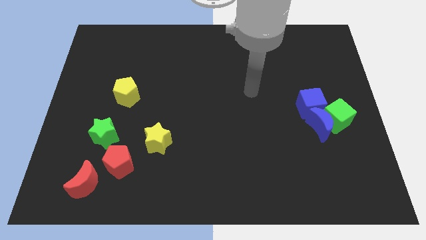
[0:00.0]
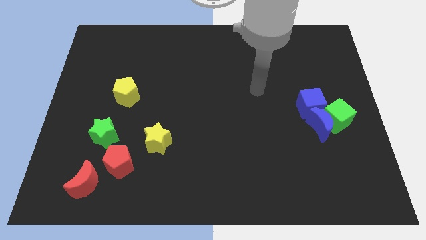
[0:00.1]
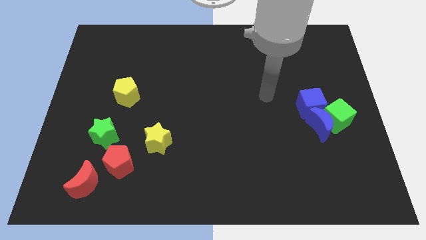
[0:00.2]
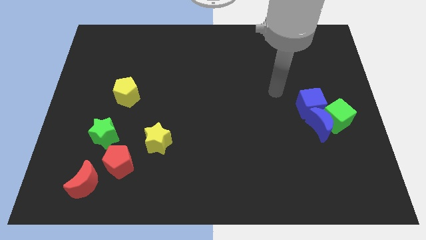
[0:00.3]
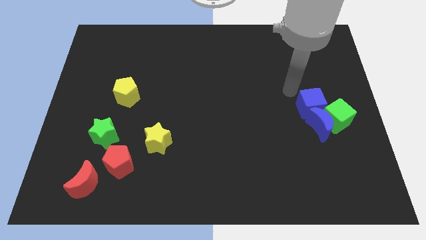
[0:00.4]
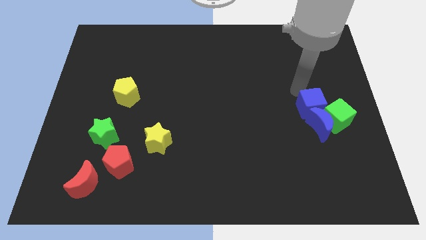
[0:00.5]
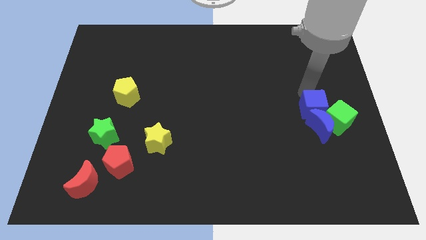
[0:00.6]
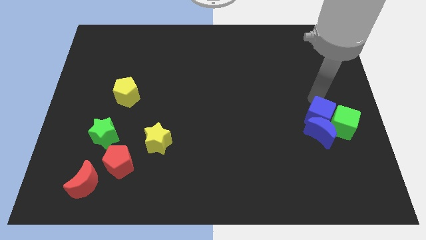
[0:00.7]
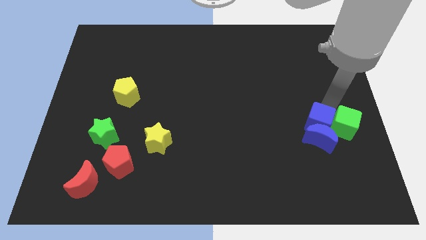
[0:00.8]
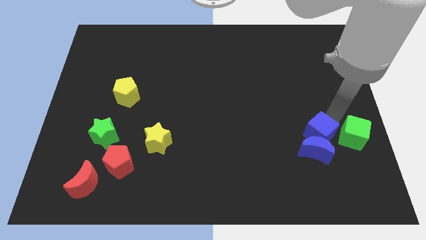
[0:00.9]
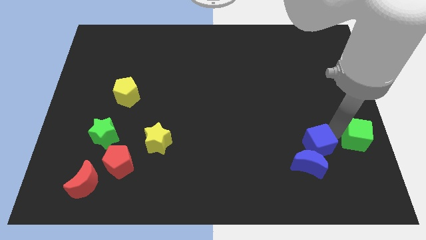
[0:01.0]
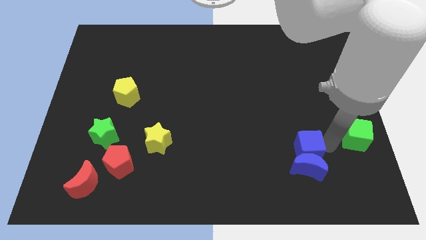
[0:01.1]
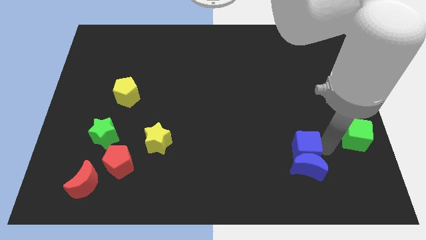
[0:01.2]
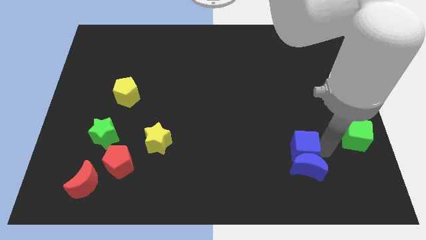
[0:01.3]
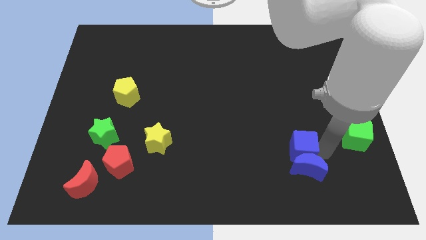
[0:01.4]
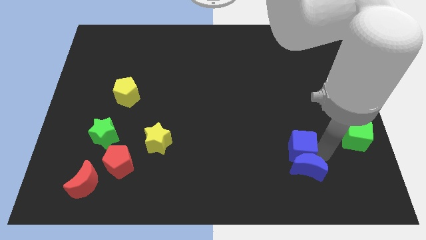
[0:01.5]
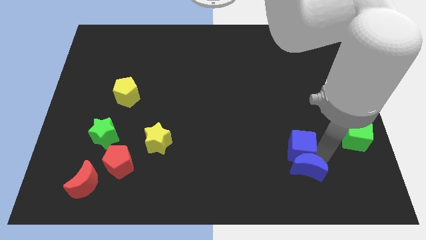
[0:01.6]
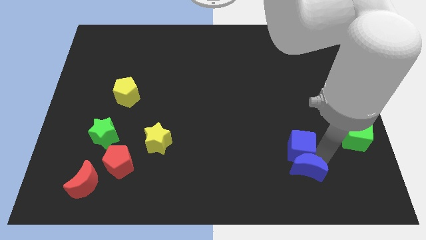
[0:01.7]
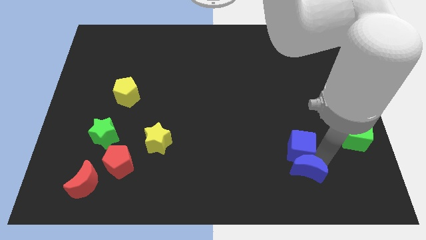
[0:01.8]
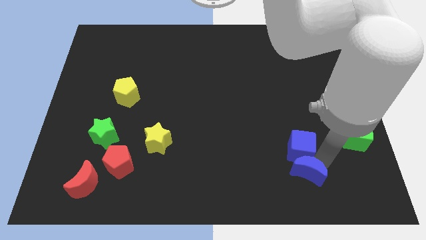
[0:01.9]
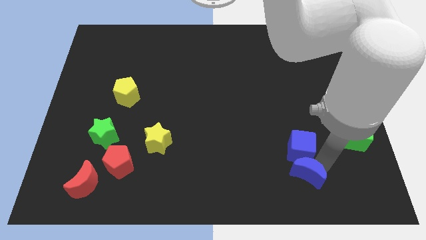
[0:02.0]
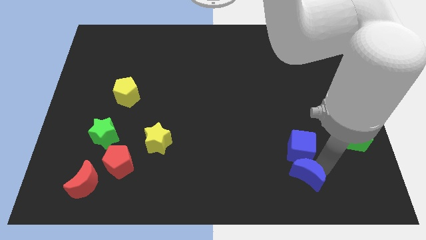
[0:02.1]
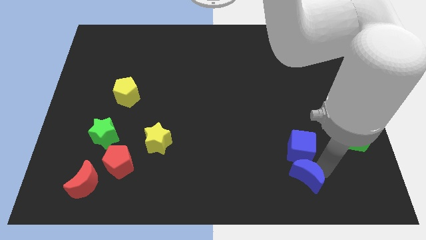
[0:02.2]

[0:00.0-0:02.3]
separate the blue moon from the green cube and blue cube

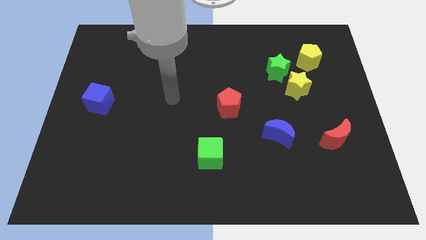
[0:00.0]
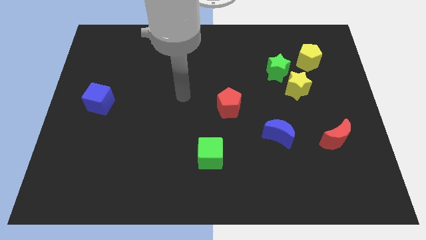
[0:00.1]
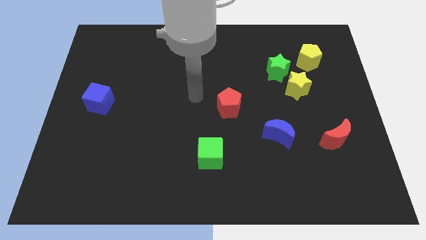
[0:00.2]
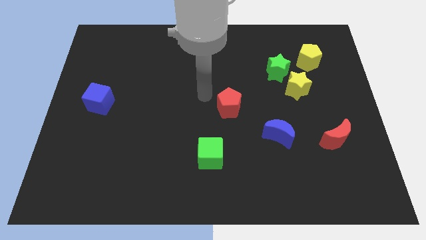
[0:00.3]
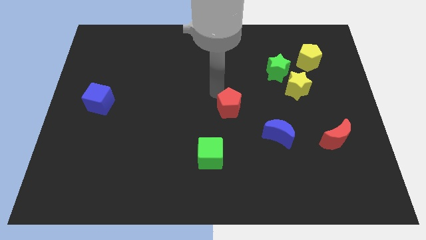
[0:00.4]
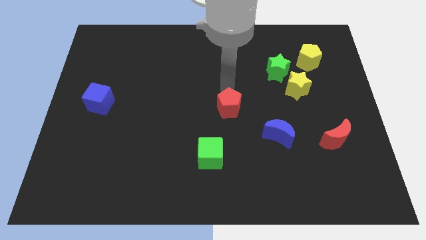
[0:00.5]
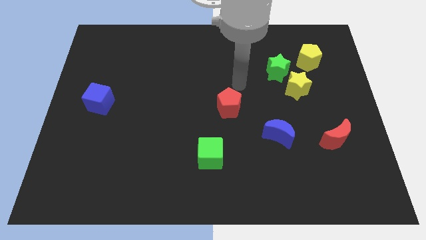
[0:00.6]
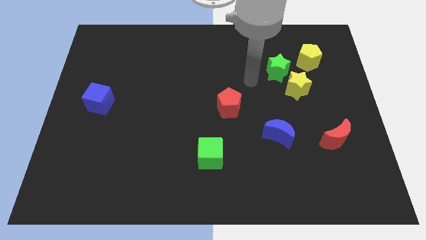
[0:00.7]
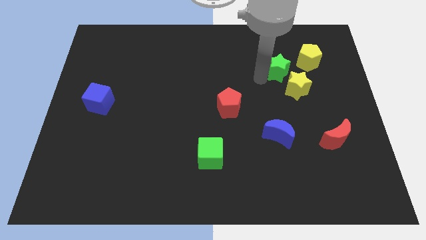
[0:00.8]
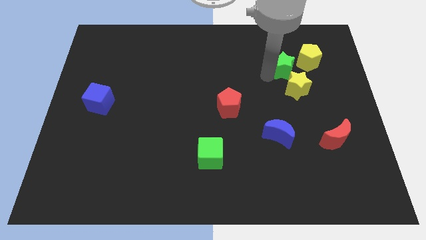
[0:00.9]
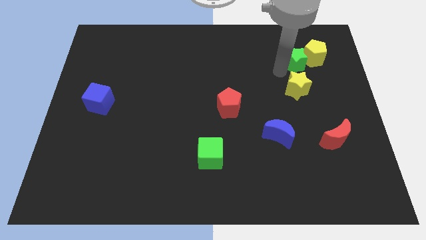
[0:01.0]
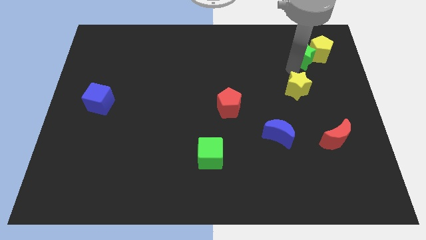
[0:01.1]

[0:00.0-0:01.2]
move the yellow star away from the green star

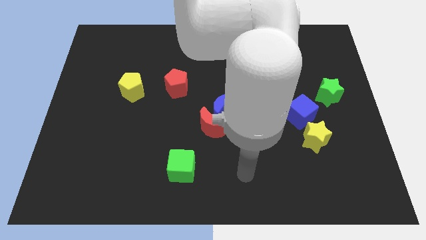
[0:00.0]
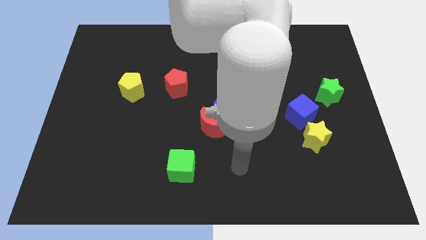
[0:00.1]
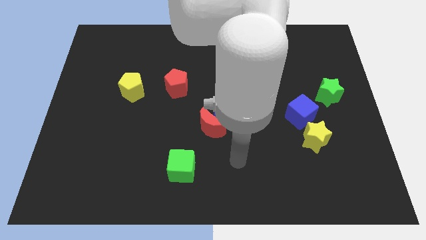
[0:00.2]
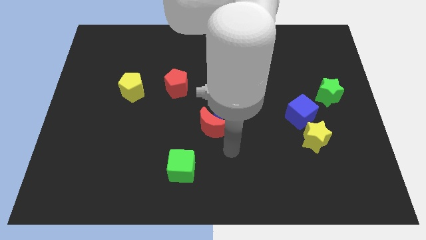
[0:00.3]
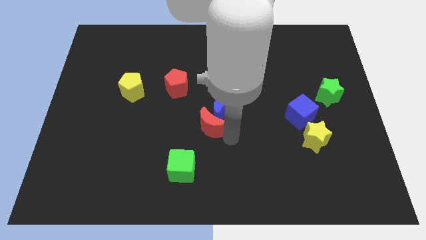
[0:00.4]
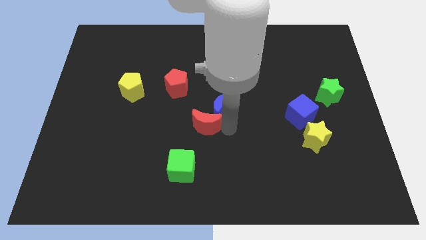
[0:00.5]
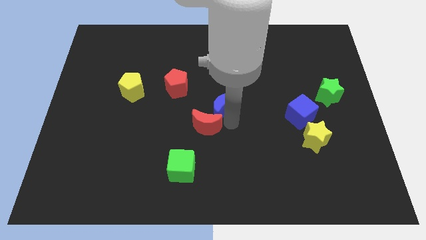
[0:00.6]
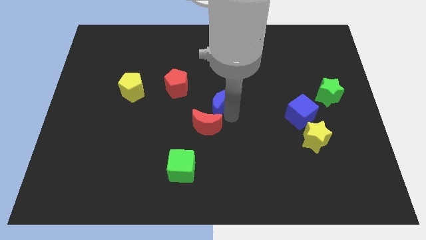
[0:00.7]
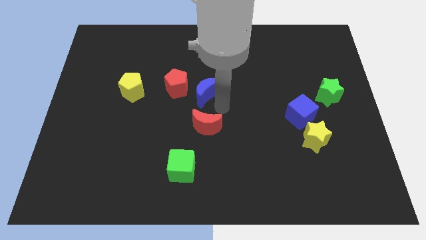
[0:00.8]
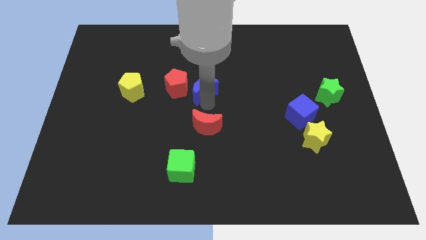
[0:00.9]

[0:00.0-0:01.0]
pull the red moon apart from the blue moon

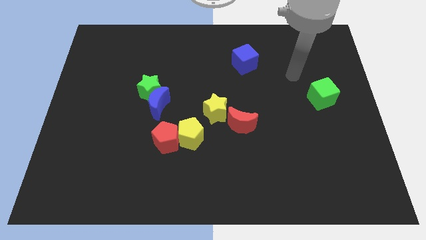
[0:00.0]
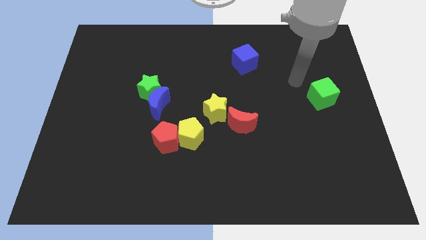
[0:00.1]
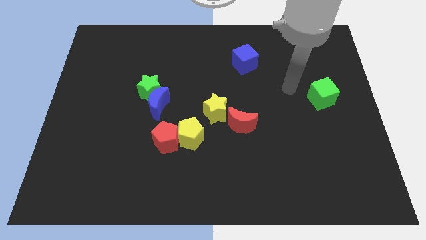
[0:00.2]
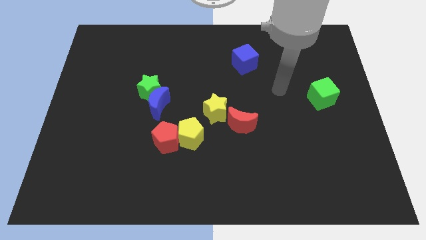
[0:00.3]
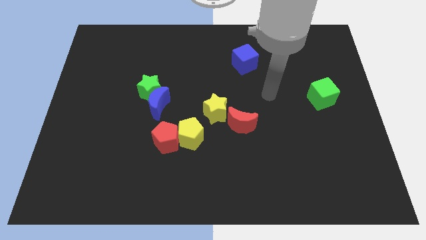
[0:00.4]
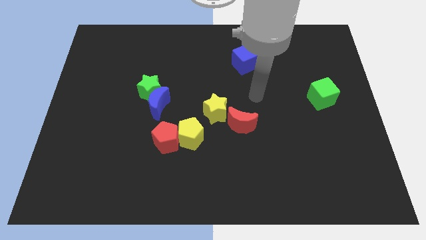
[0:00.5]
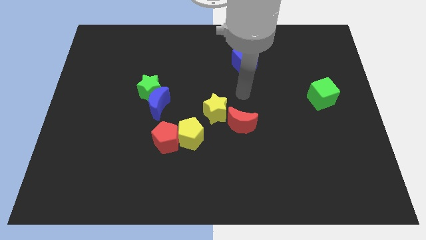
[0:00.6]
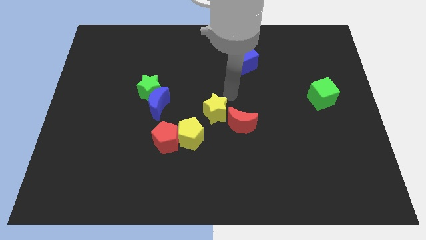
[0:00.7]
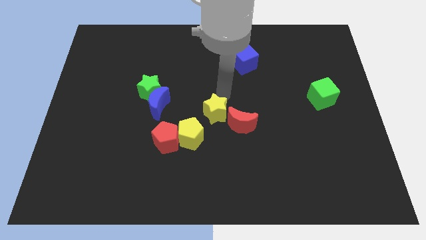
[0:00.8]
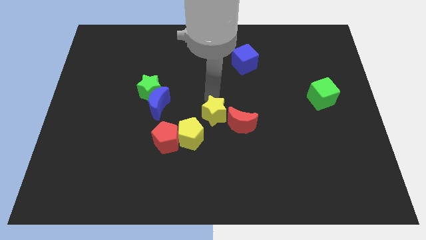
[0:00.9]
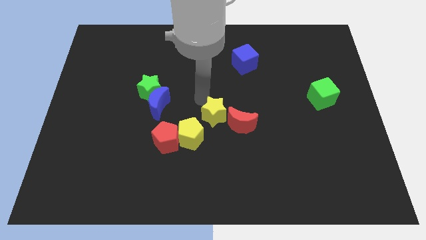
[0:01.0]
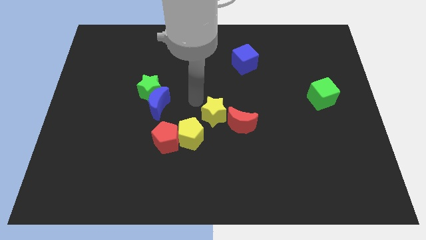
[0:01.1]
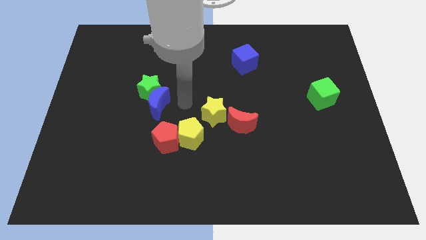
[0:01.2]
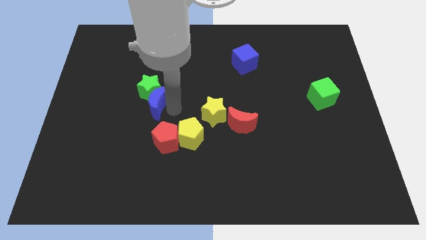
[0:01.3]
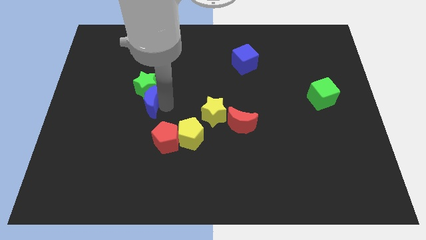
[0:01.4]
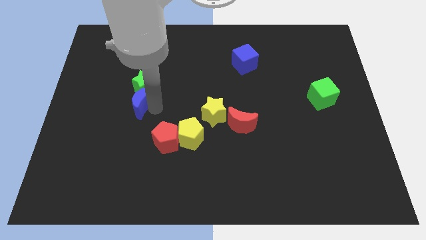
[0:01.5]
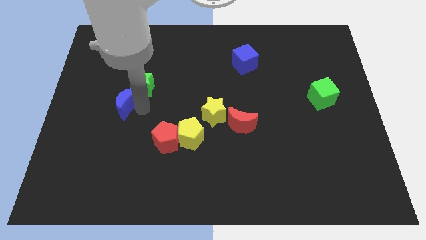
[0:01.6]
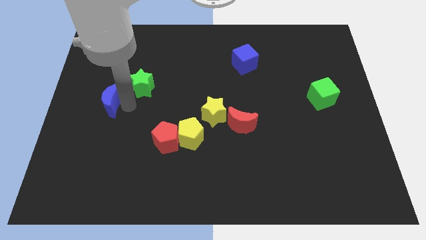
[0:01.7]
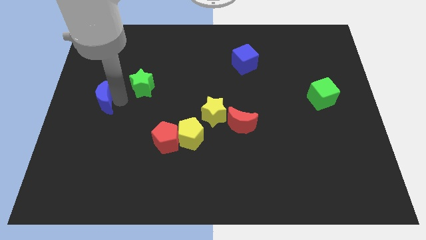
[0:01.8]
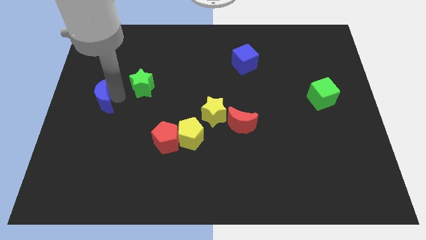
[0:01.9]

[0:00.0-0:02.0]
separate the green star from the blue moon

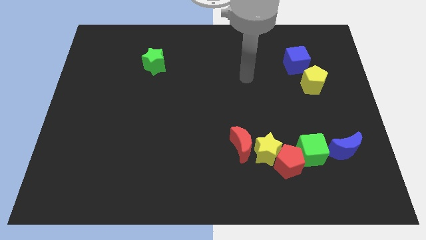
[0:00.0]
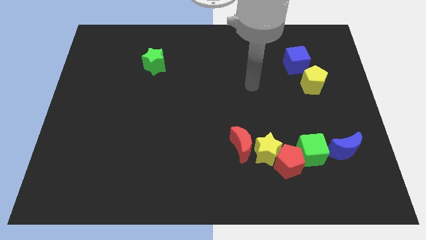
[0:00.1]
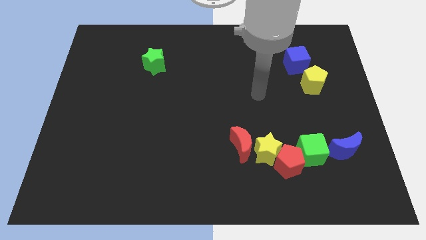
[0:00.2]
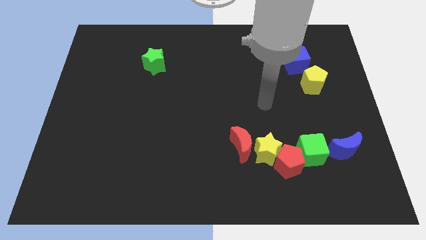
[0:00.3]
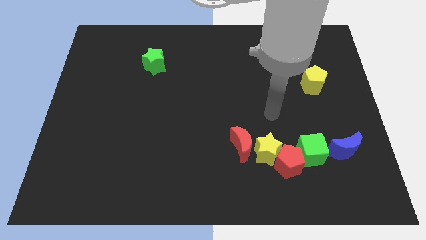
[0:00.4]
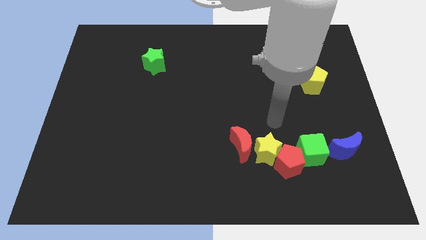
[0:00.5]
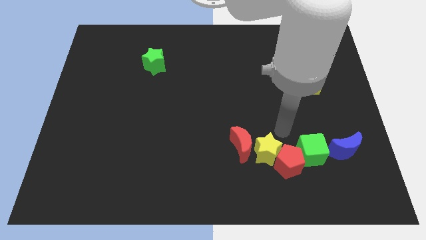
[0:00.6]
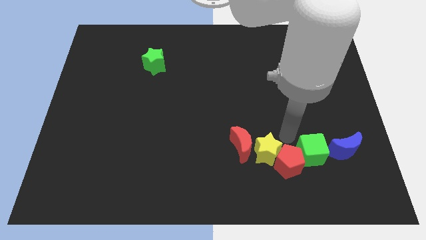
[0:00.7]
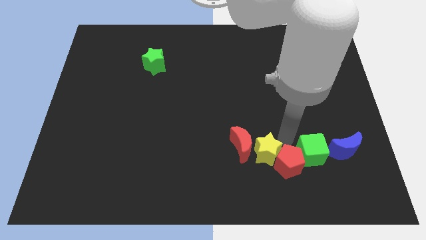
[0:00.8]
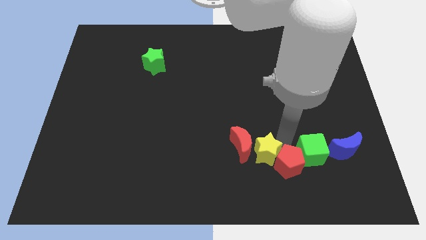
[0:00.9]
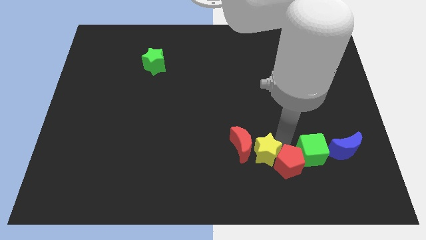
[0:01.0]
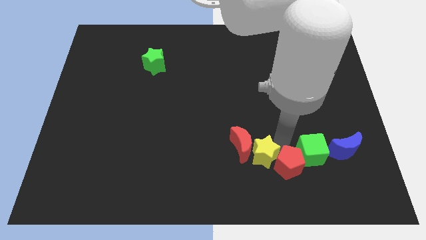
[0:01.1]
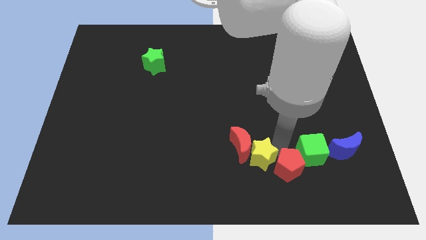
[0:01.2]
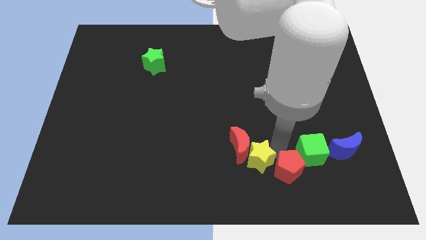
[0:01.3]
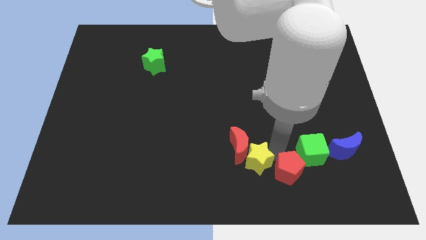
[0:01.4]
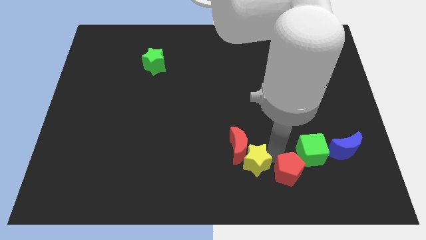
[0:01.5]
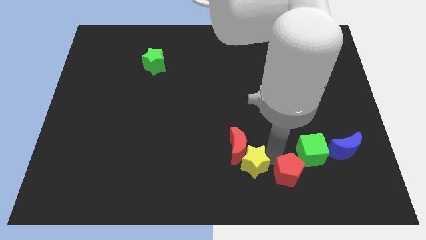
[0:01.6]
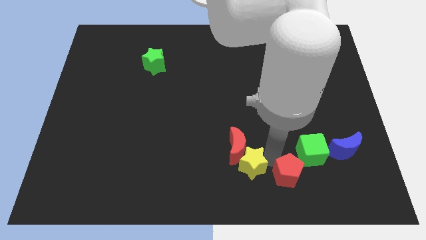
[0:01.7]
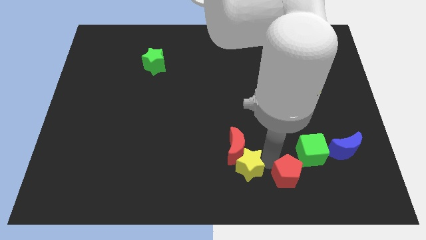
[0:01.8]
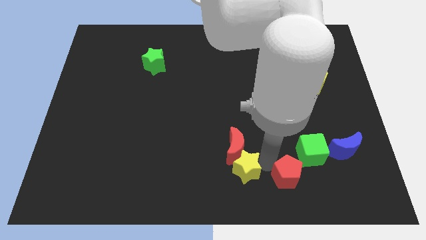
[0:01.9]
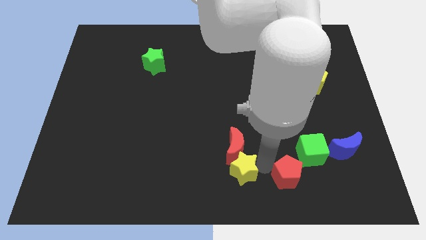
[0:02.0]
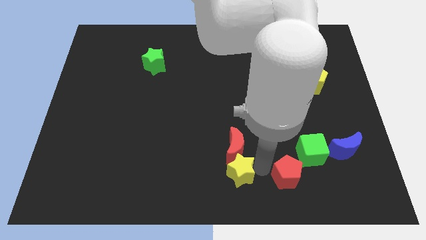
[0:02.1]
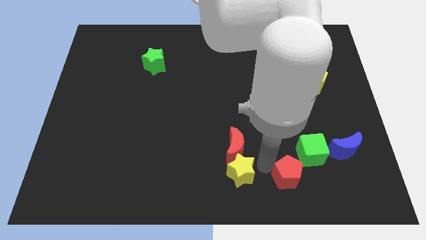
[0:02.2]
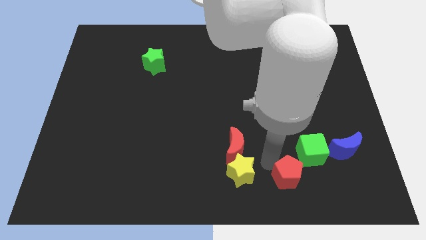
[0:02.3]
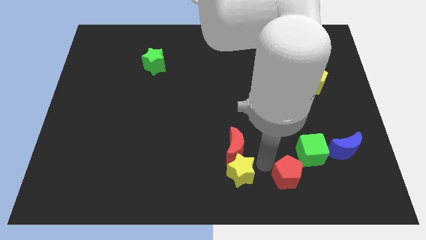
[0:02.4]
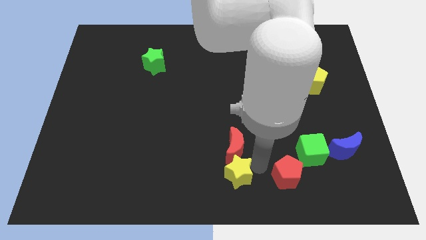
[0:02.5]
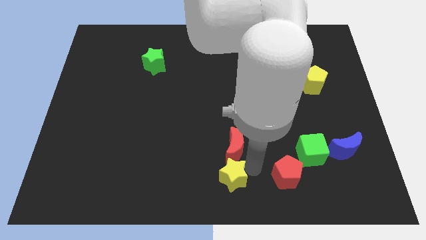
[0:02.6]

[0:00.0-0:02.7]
pull the yellow star apart from the red moon, red pentagon, and green cube
